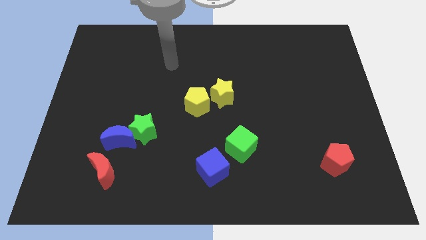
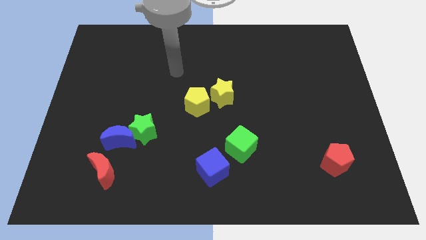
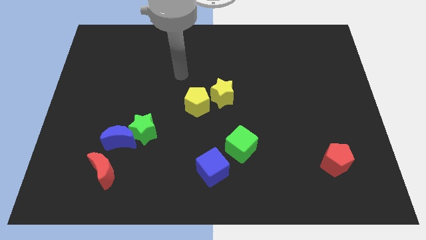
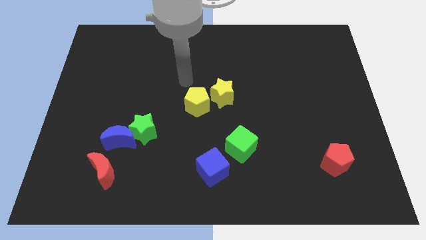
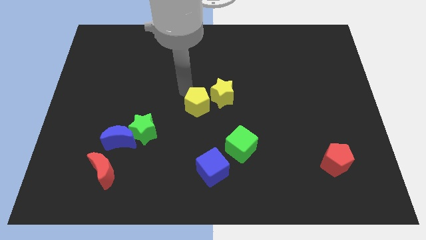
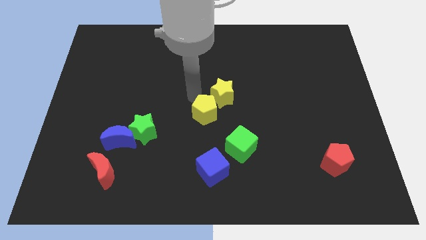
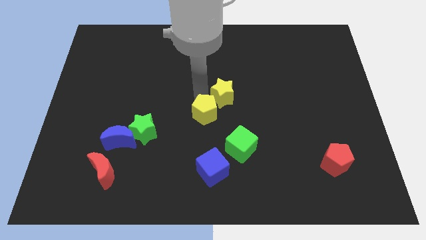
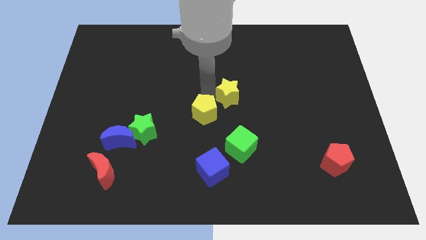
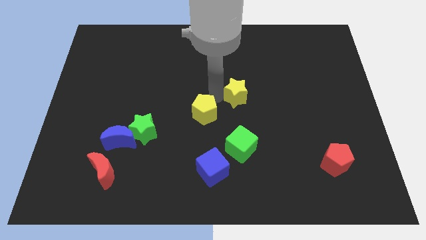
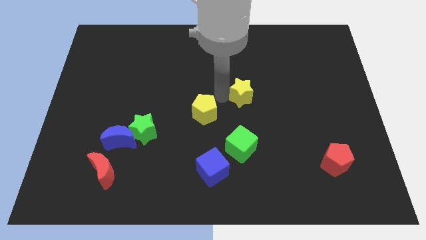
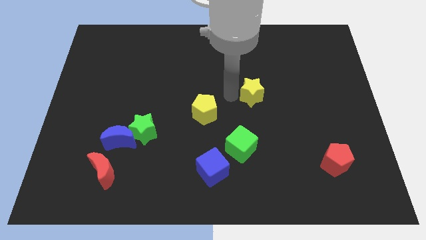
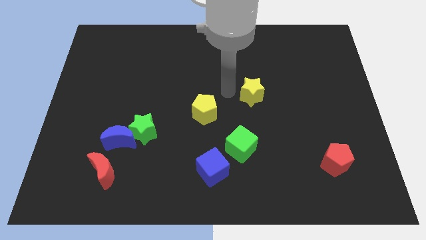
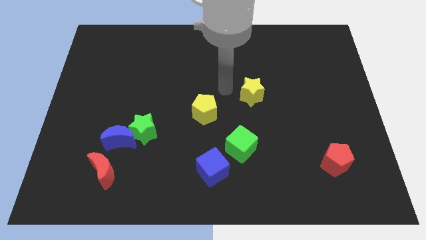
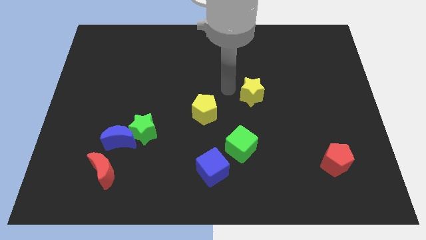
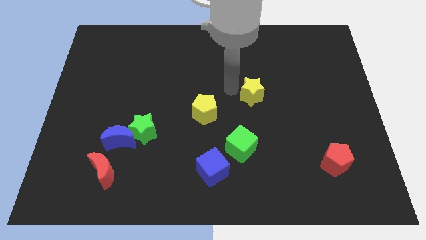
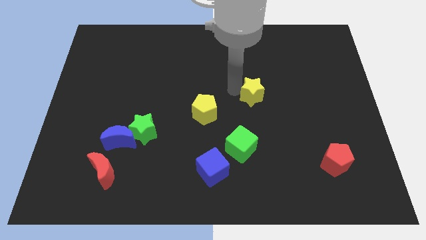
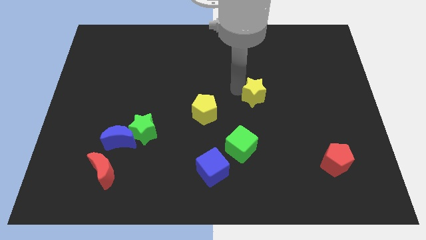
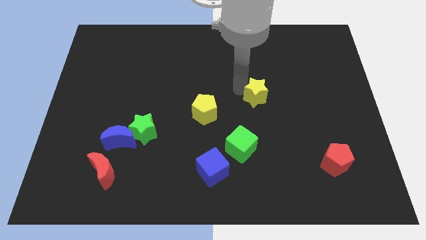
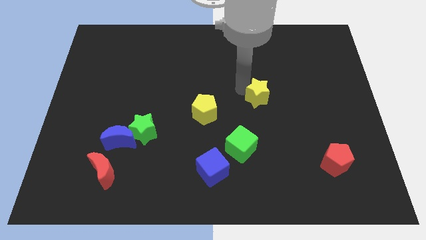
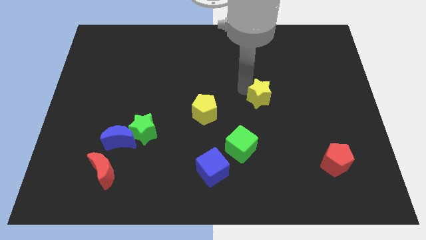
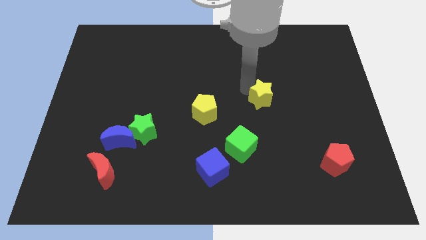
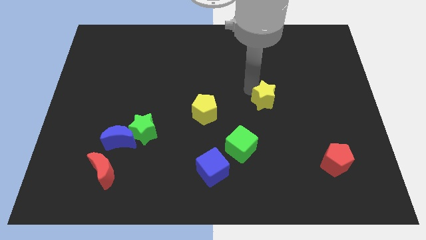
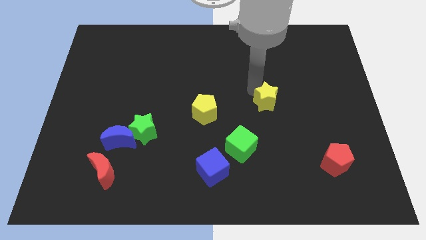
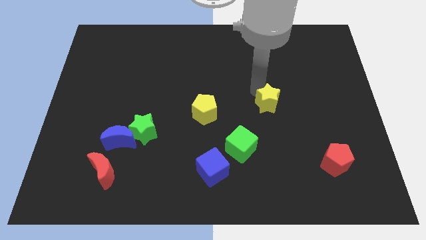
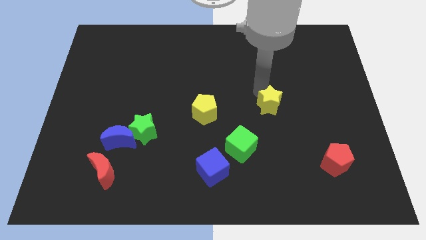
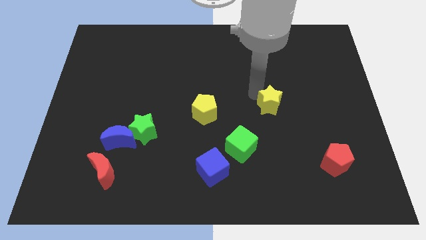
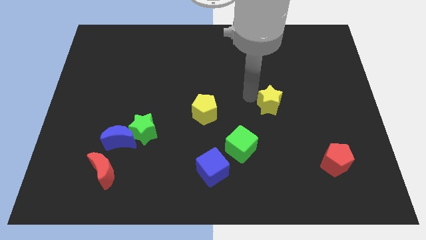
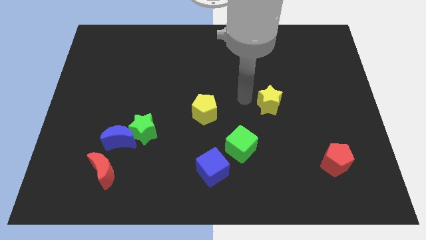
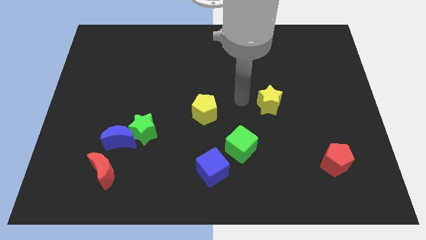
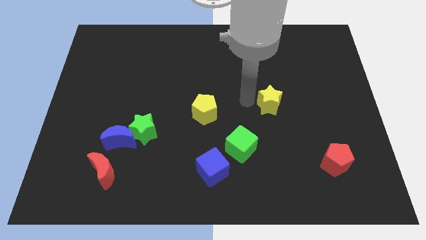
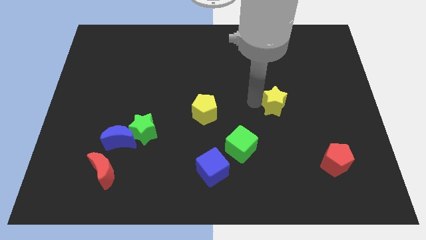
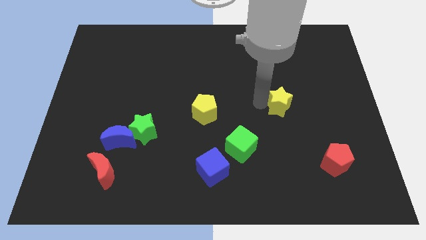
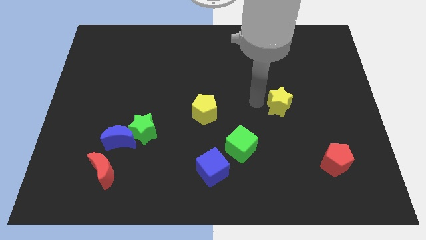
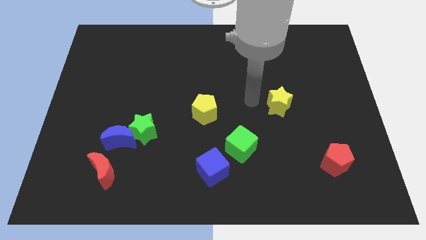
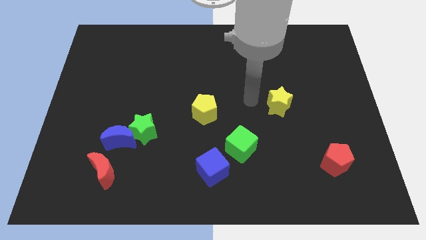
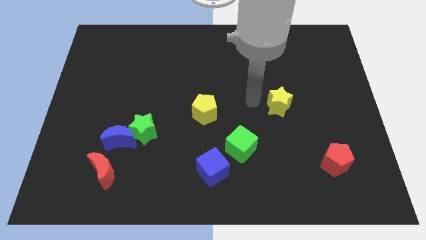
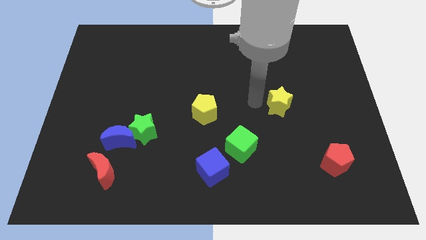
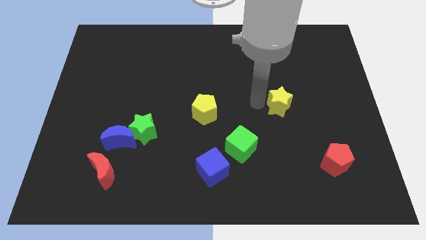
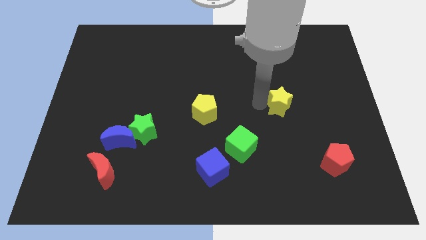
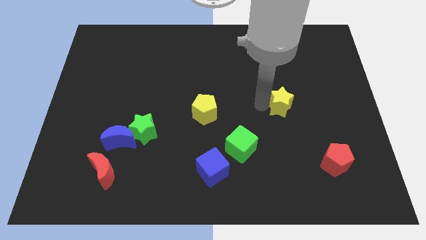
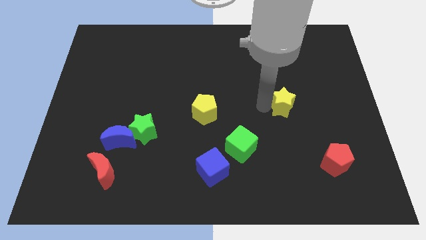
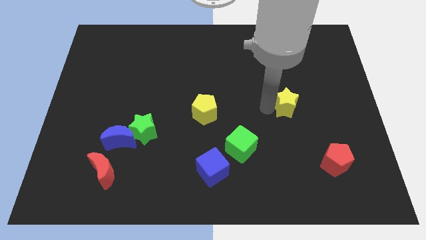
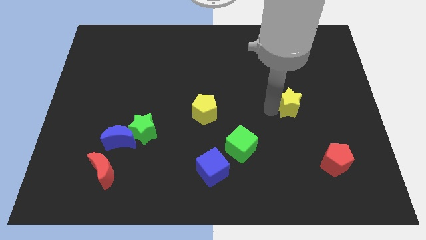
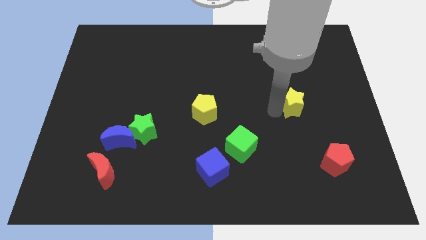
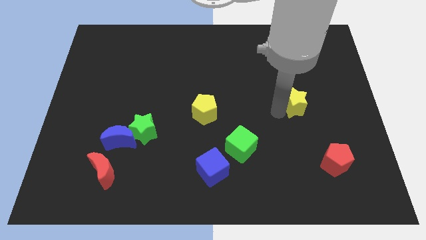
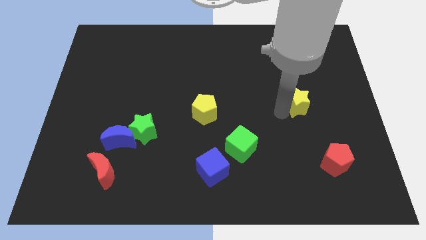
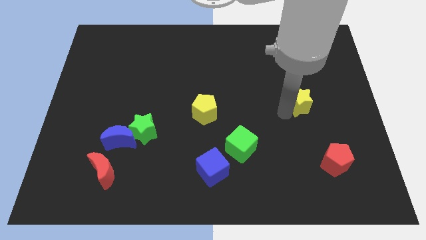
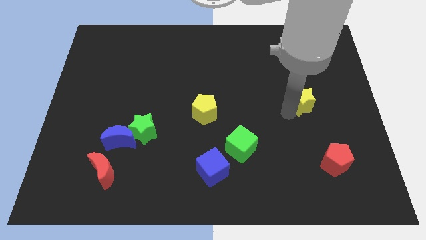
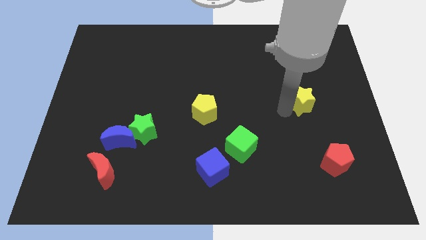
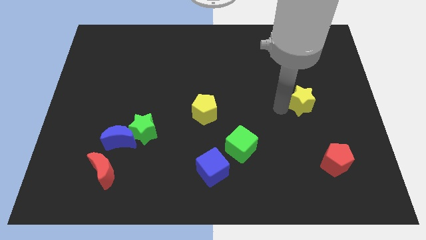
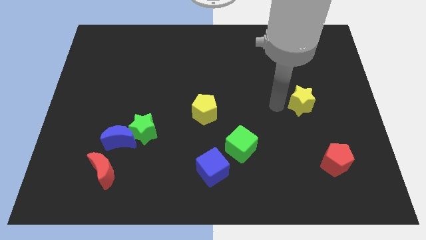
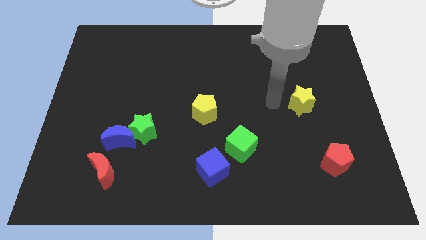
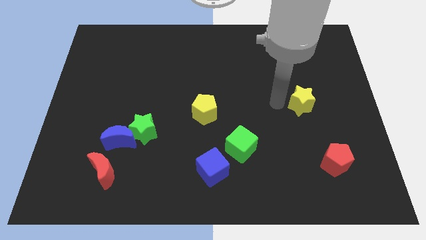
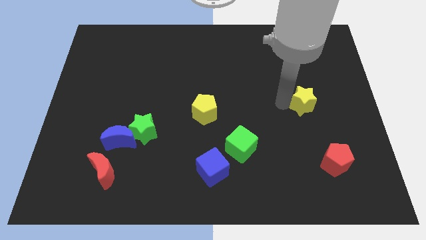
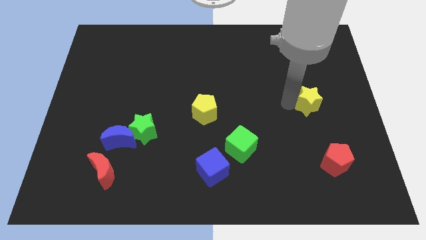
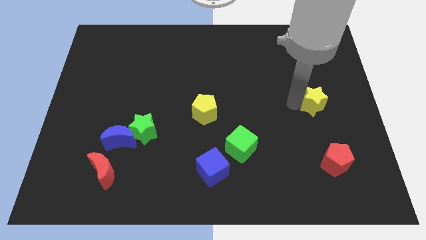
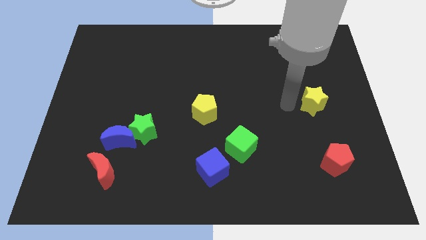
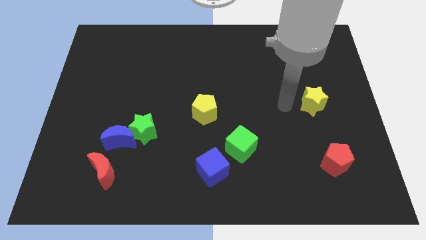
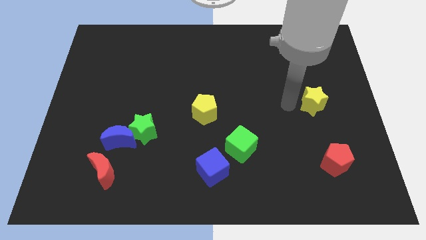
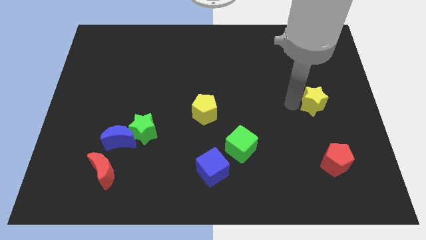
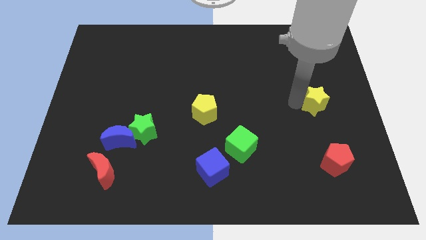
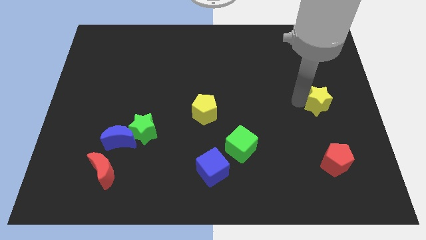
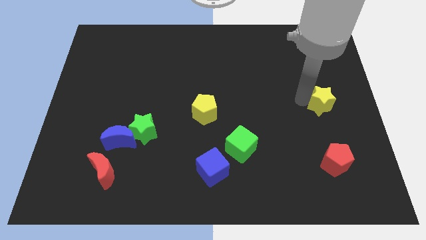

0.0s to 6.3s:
move the yellow star to the right side of the board

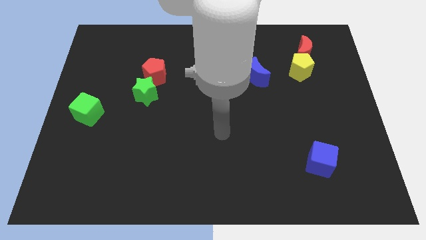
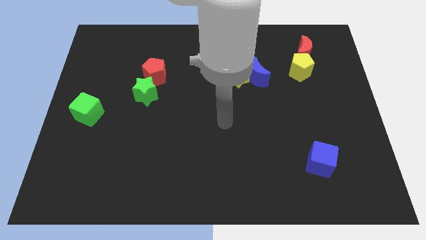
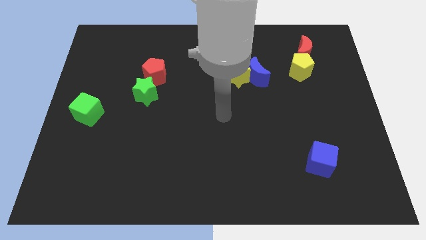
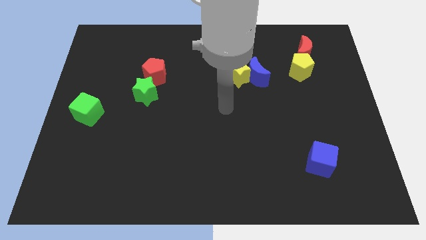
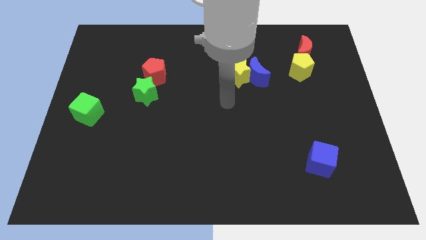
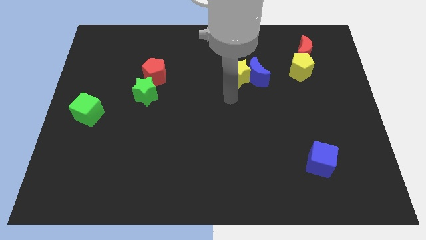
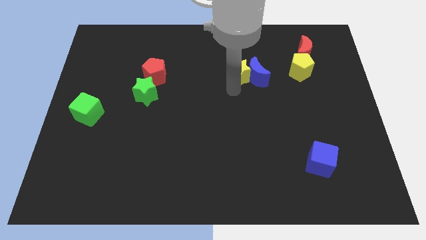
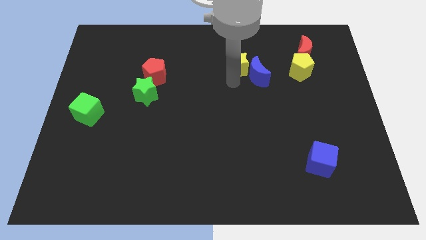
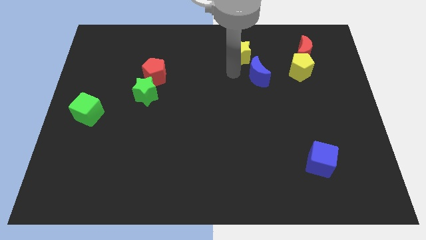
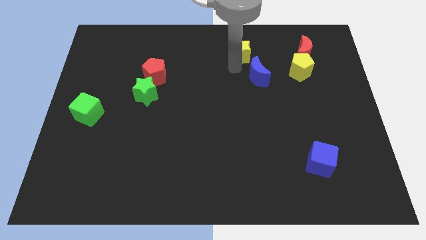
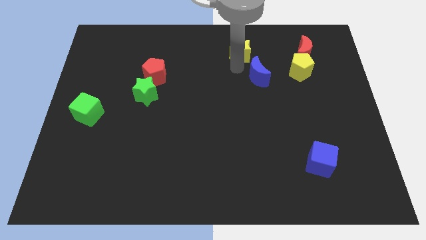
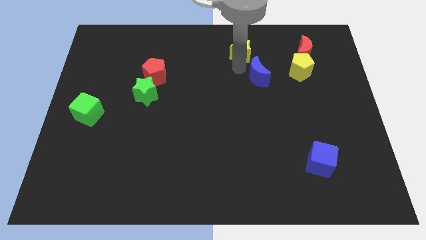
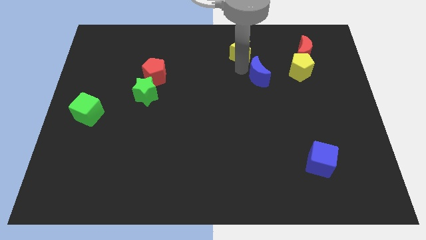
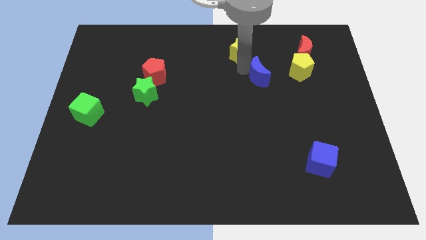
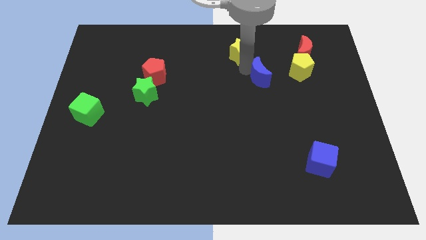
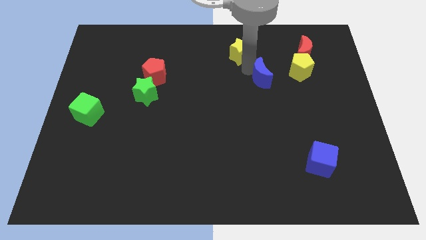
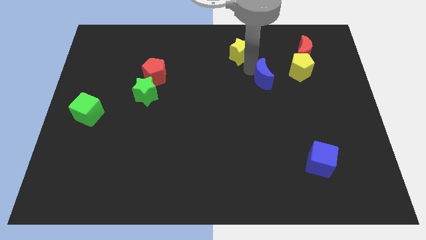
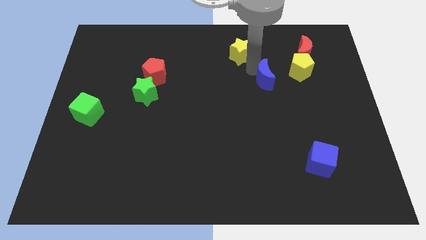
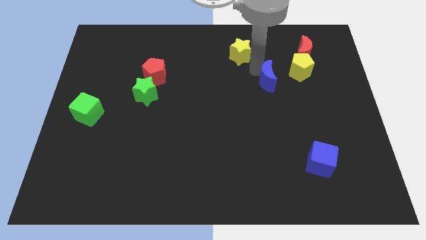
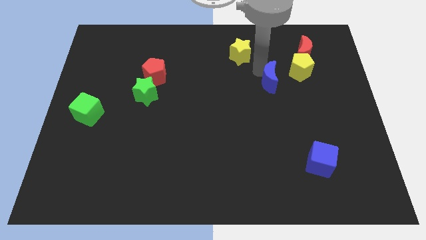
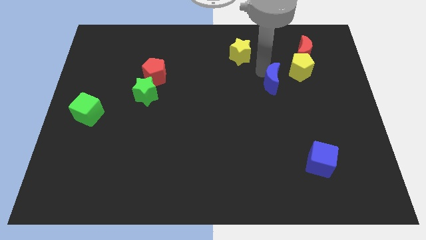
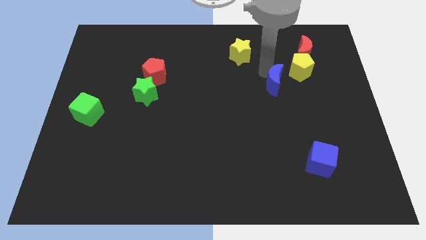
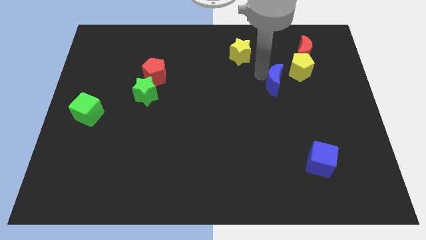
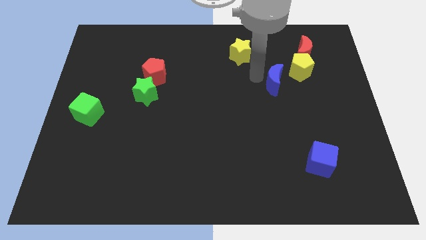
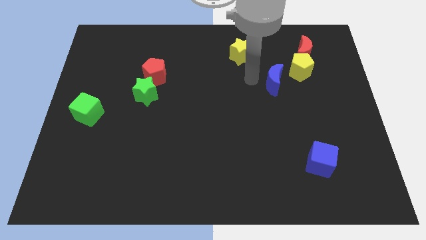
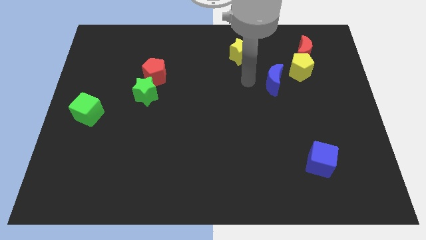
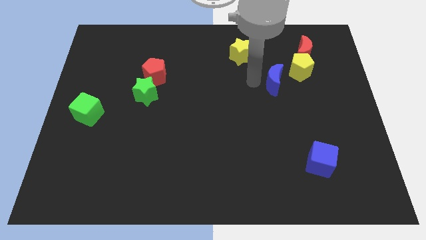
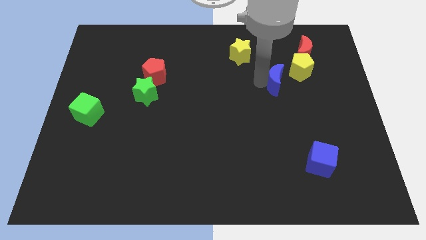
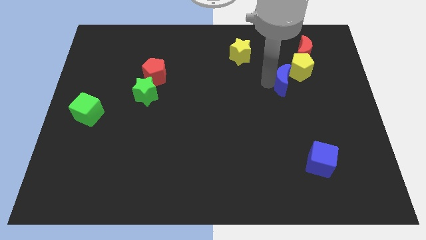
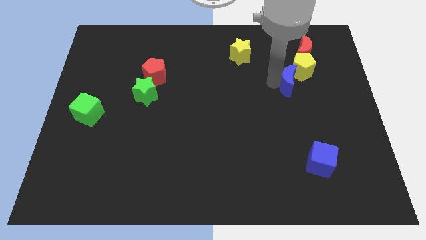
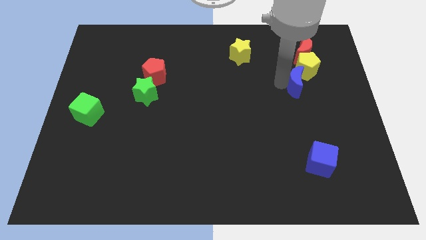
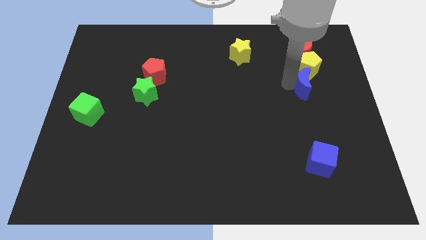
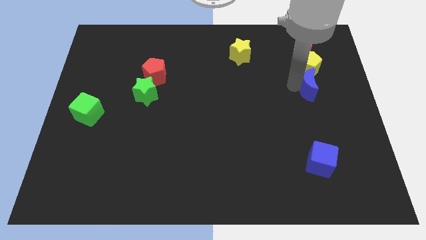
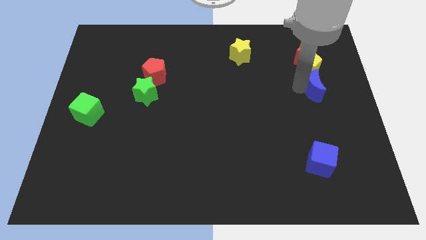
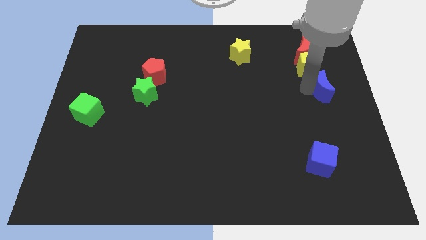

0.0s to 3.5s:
put the blue moon to the right side
